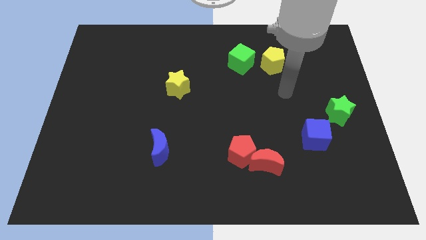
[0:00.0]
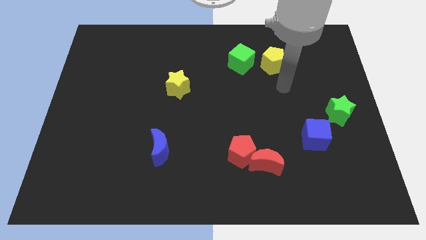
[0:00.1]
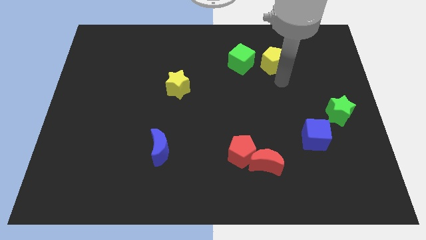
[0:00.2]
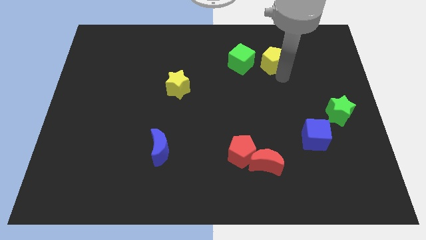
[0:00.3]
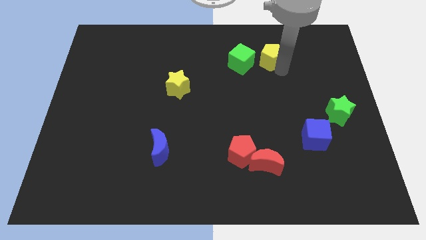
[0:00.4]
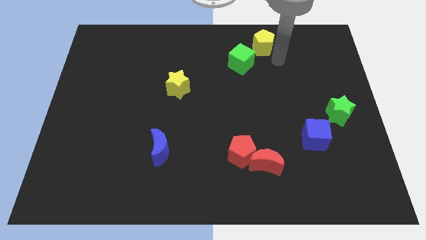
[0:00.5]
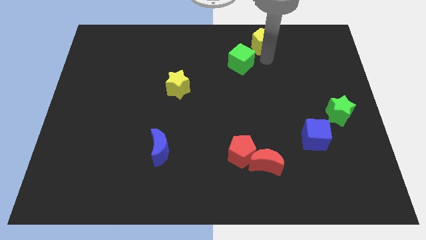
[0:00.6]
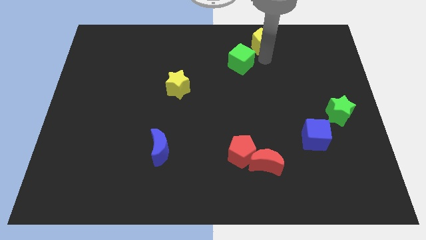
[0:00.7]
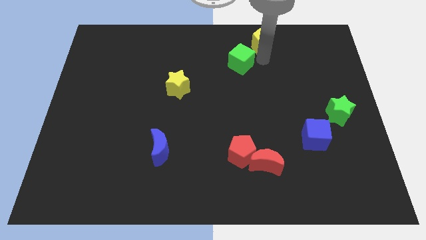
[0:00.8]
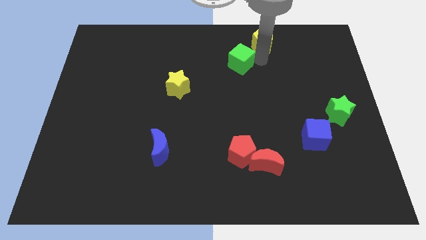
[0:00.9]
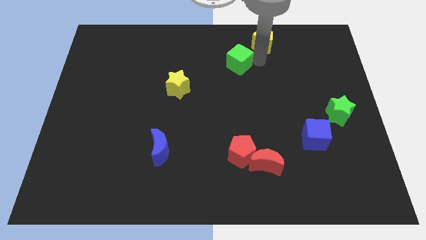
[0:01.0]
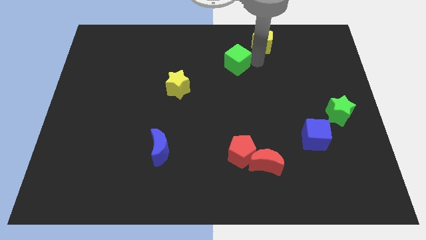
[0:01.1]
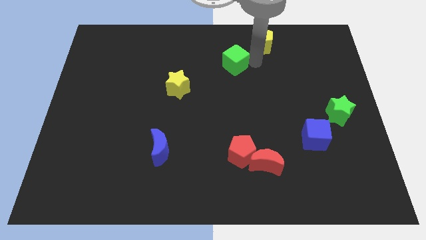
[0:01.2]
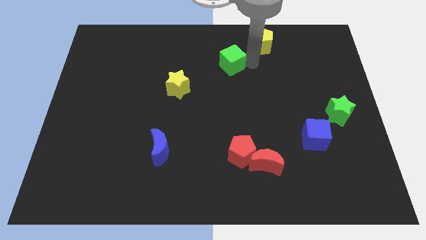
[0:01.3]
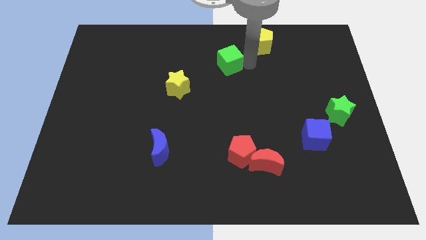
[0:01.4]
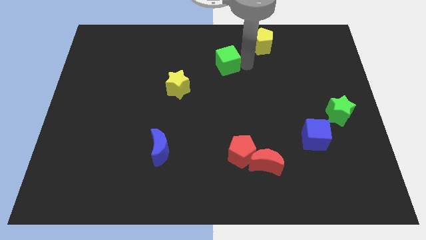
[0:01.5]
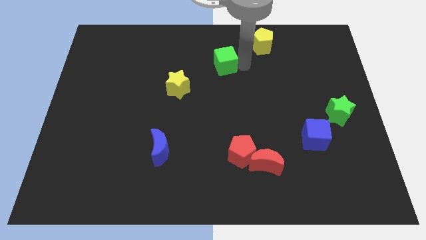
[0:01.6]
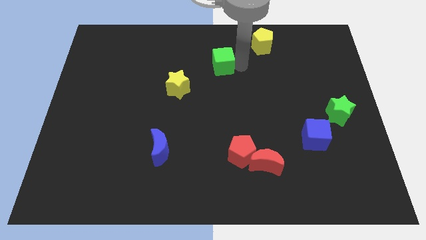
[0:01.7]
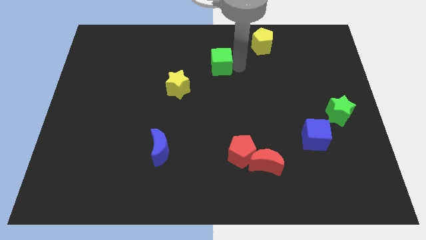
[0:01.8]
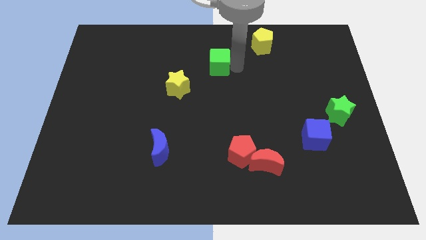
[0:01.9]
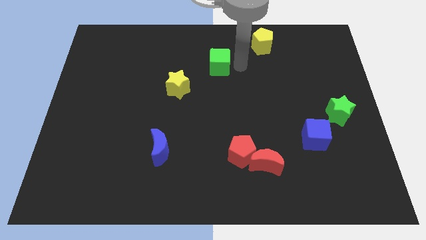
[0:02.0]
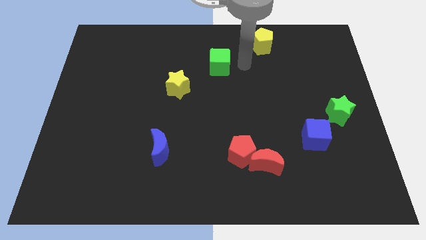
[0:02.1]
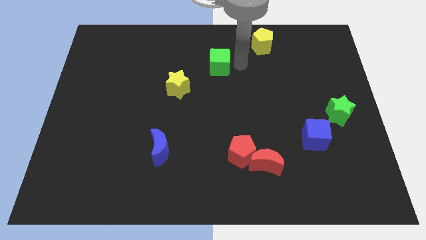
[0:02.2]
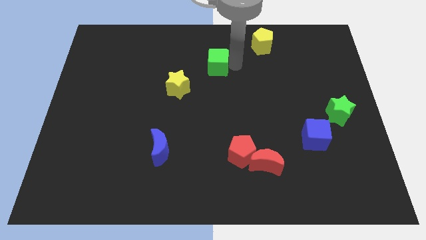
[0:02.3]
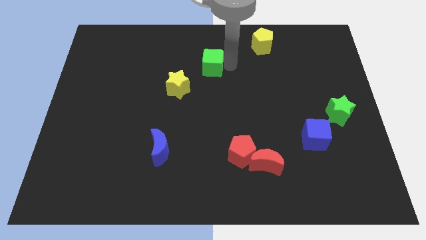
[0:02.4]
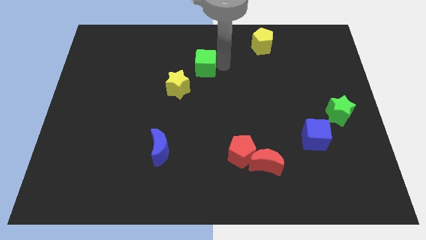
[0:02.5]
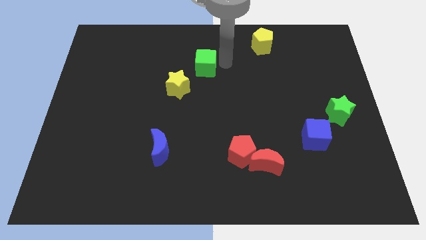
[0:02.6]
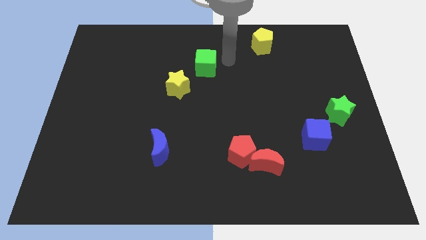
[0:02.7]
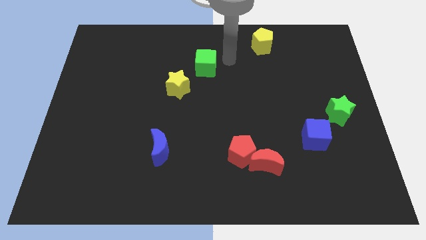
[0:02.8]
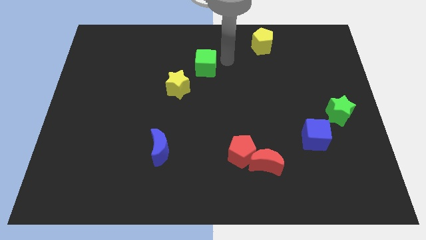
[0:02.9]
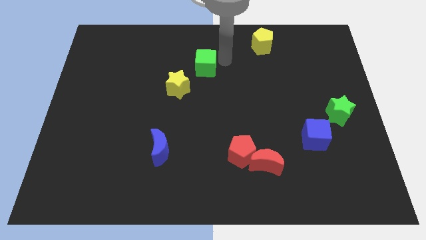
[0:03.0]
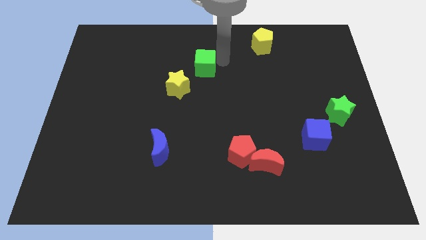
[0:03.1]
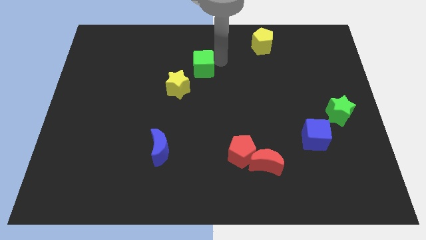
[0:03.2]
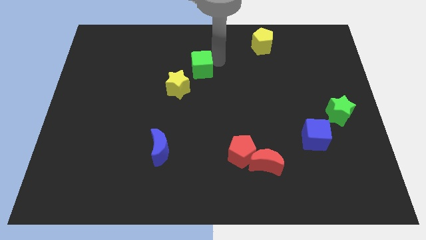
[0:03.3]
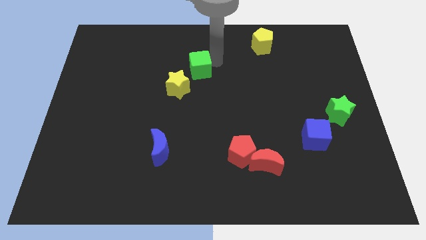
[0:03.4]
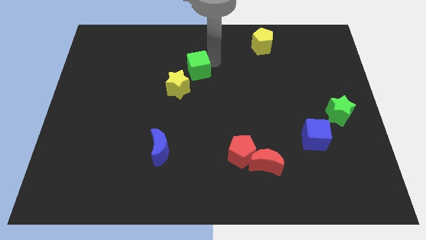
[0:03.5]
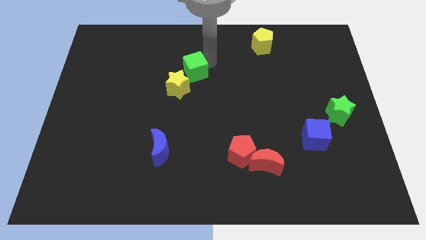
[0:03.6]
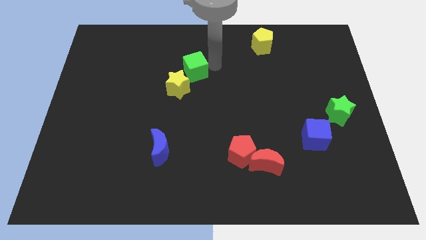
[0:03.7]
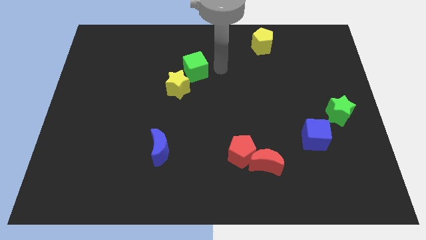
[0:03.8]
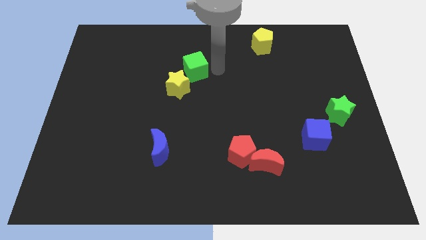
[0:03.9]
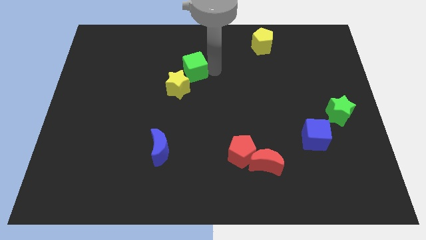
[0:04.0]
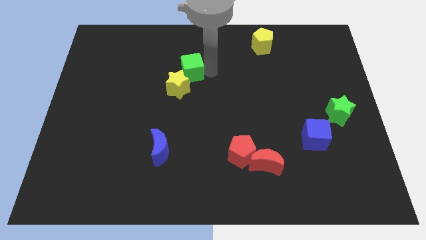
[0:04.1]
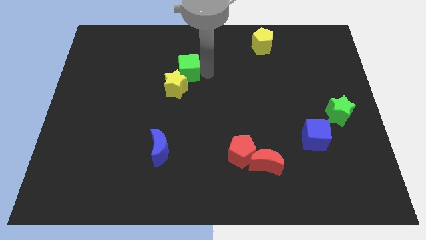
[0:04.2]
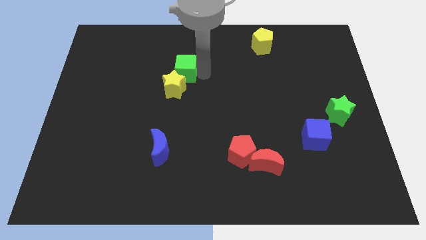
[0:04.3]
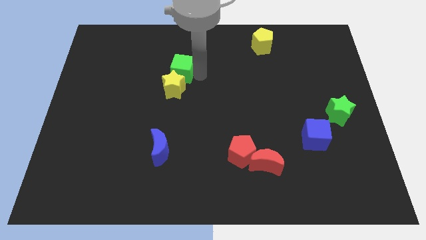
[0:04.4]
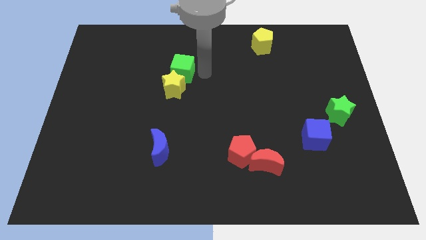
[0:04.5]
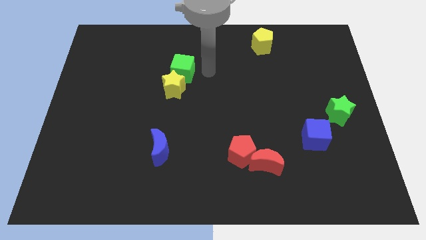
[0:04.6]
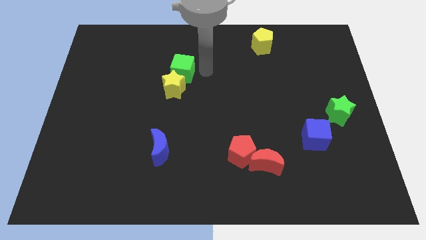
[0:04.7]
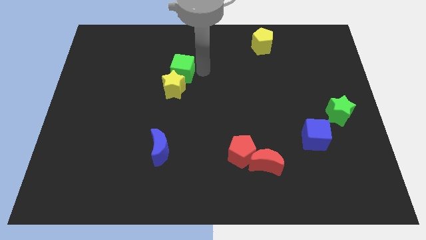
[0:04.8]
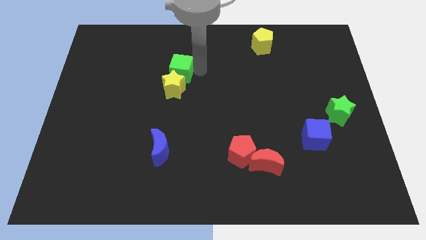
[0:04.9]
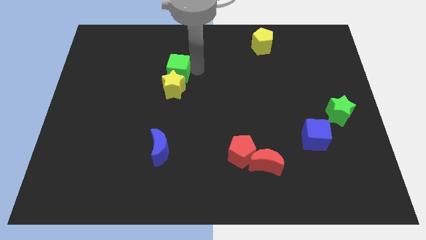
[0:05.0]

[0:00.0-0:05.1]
put the green cube to the top left of the yellow star

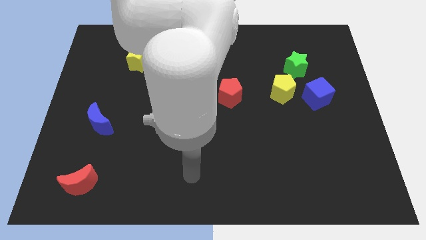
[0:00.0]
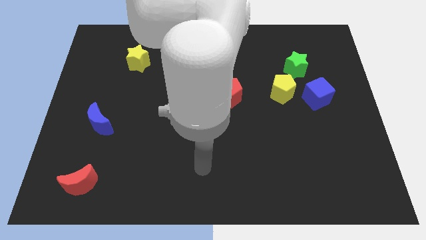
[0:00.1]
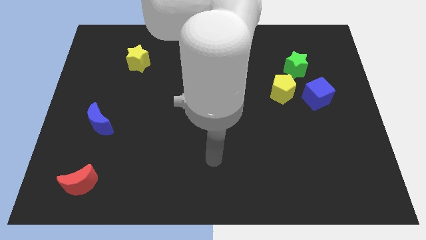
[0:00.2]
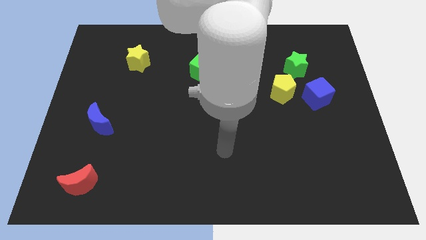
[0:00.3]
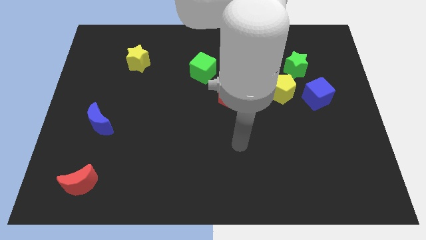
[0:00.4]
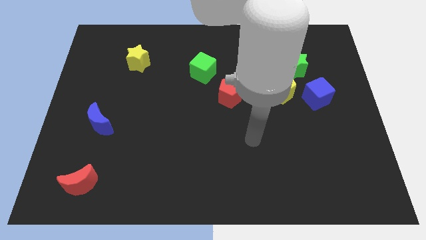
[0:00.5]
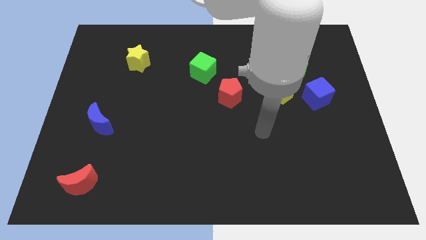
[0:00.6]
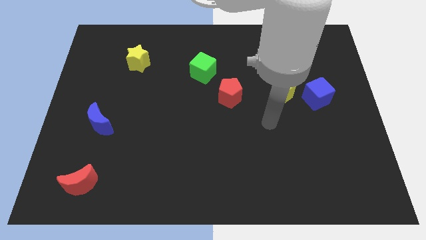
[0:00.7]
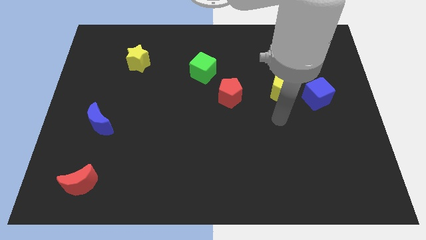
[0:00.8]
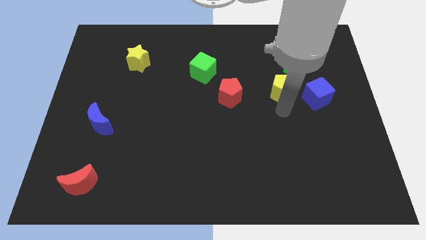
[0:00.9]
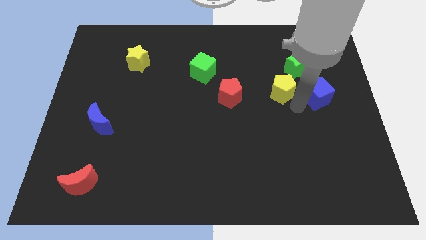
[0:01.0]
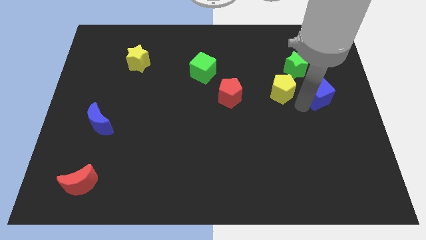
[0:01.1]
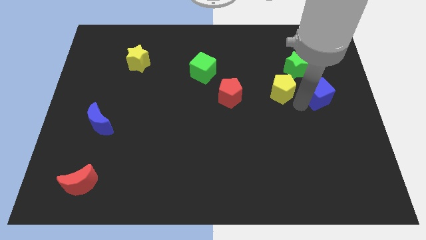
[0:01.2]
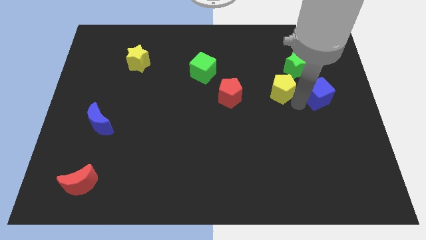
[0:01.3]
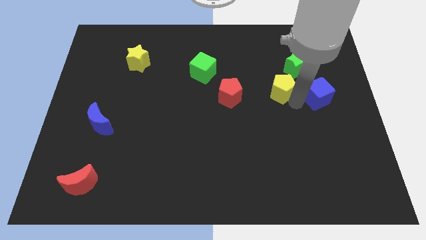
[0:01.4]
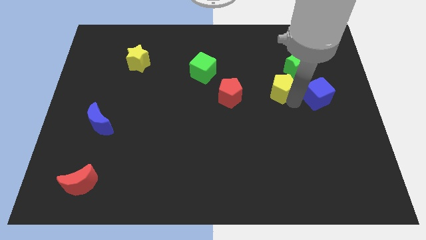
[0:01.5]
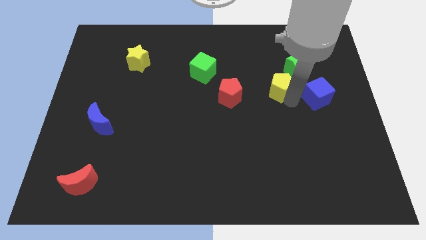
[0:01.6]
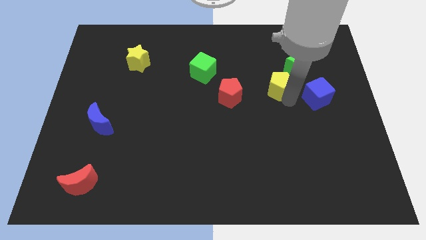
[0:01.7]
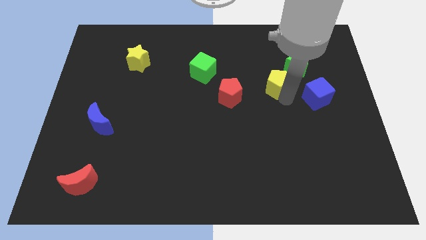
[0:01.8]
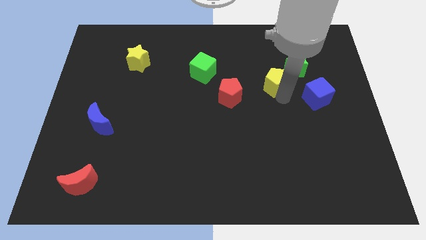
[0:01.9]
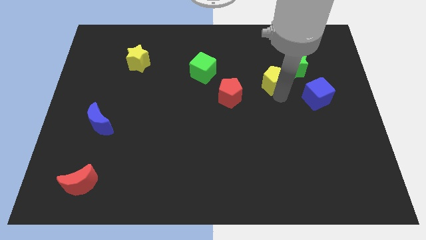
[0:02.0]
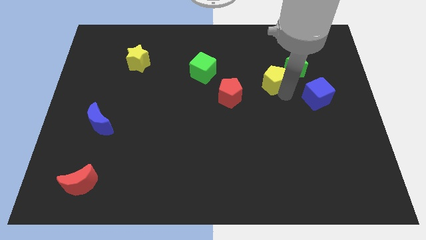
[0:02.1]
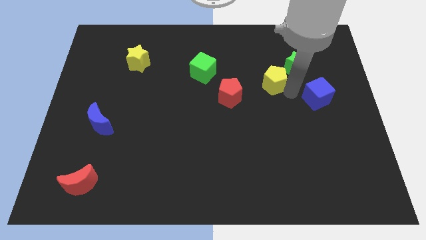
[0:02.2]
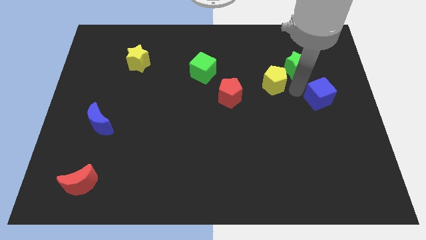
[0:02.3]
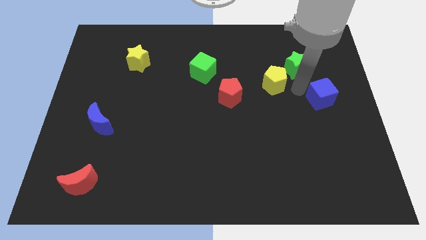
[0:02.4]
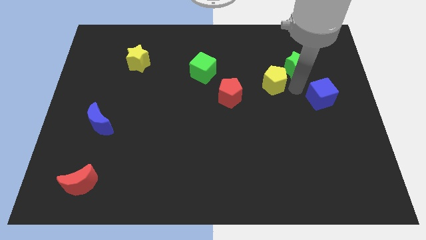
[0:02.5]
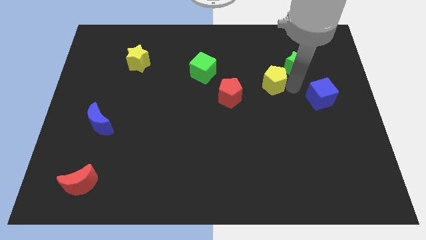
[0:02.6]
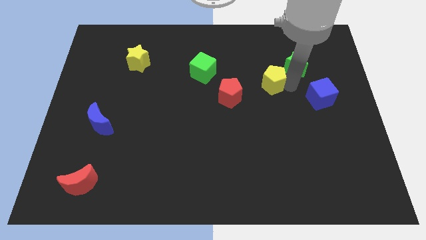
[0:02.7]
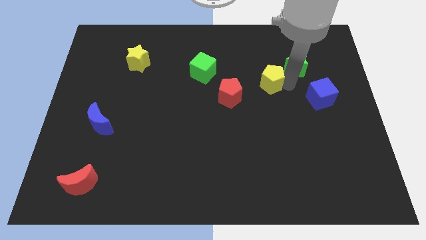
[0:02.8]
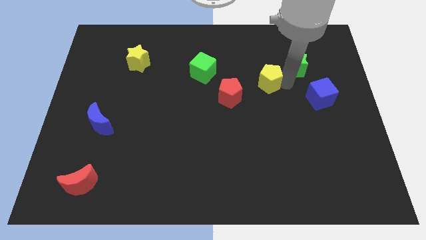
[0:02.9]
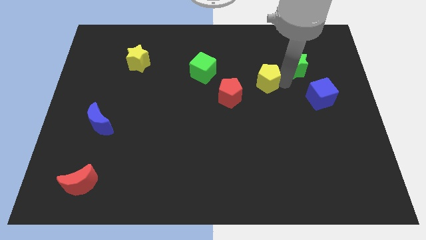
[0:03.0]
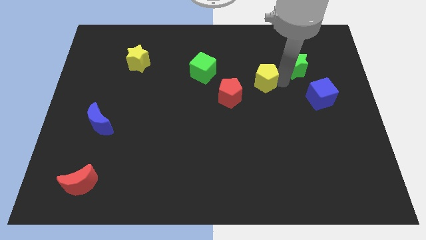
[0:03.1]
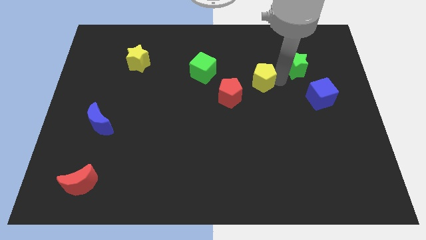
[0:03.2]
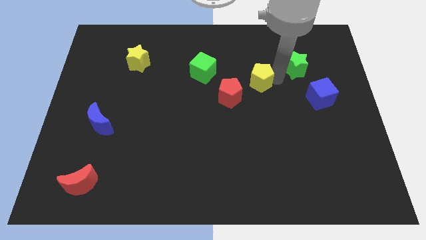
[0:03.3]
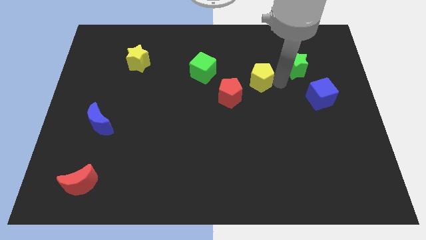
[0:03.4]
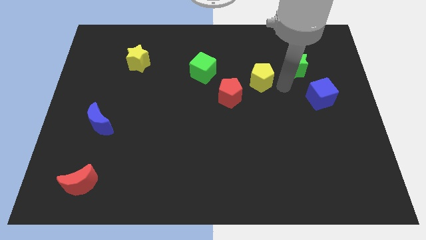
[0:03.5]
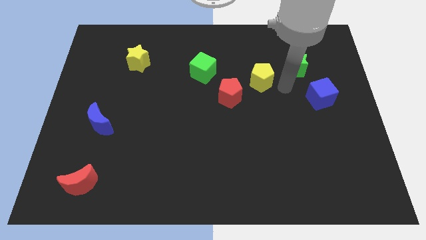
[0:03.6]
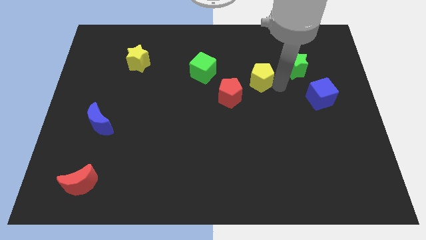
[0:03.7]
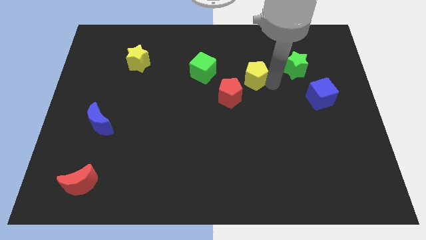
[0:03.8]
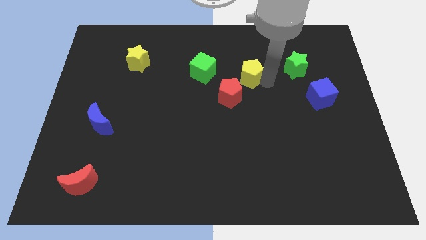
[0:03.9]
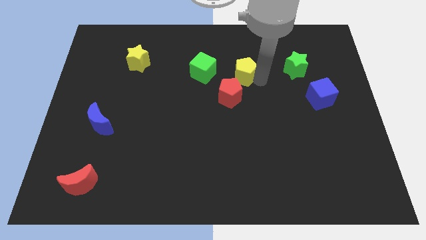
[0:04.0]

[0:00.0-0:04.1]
put the yellow pentagon to the top side of the red pentagon
